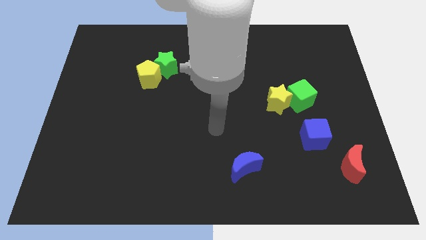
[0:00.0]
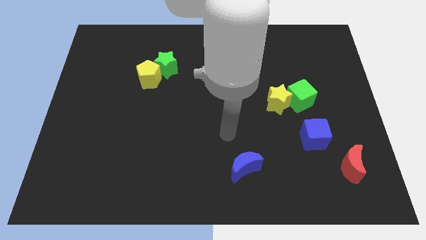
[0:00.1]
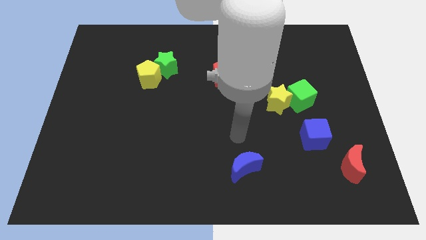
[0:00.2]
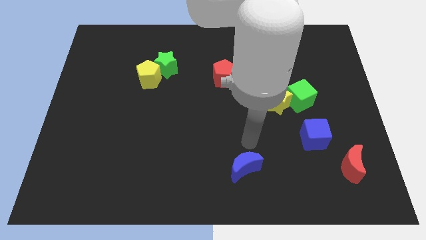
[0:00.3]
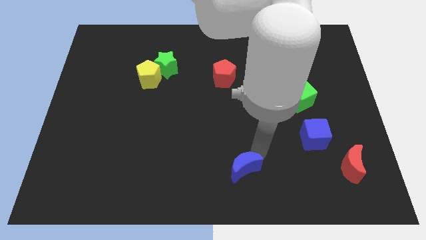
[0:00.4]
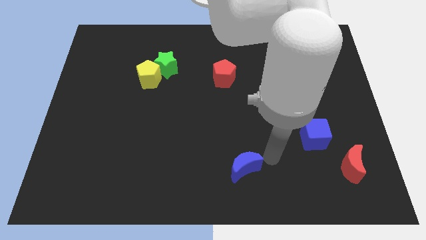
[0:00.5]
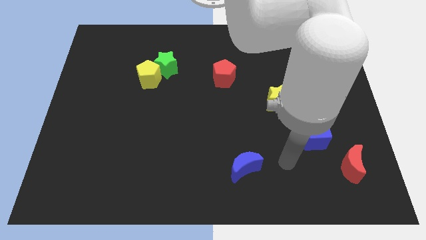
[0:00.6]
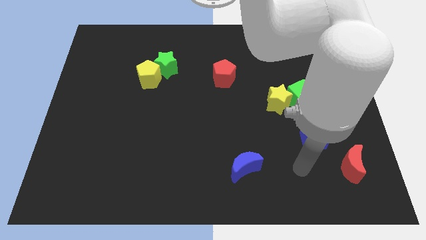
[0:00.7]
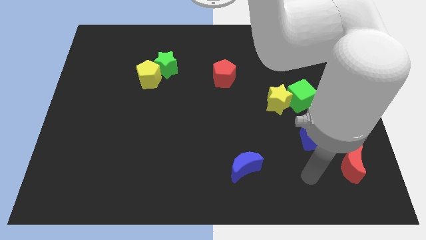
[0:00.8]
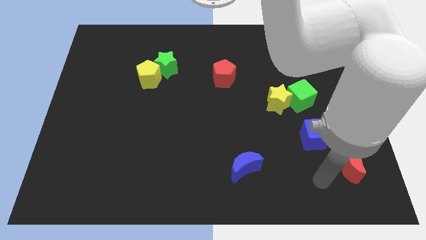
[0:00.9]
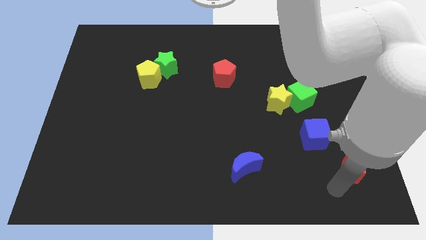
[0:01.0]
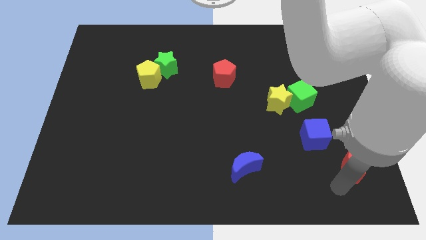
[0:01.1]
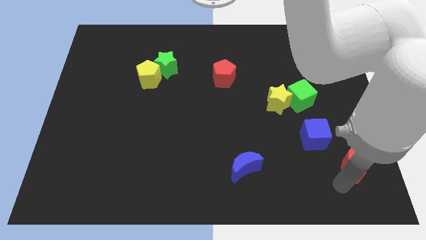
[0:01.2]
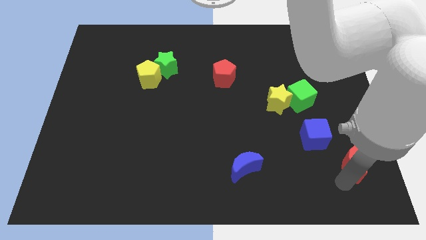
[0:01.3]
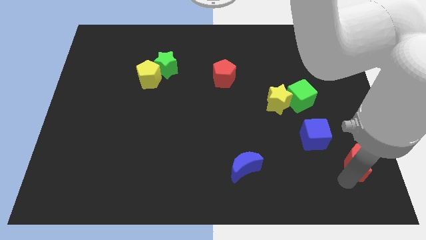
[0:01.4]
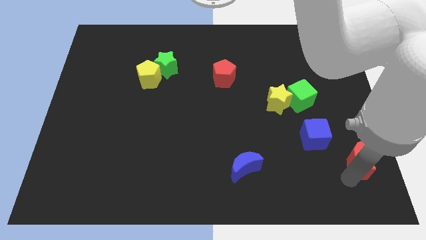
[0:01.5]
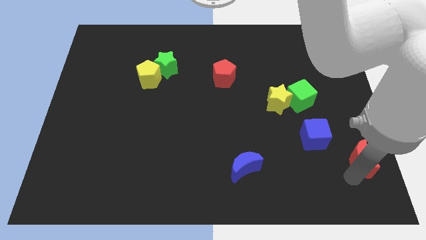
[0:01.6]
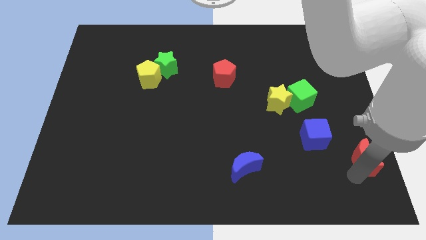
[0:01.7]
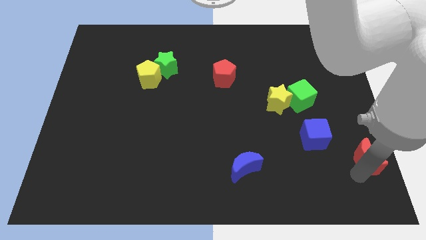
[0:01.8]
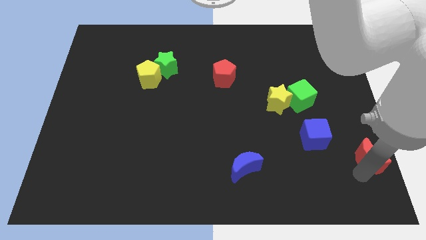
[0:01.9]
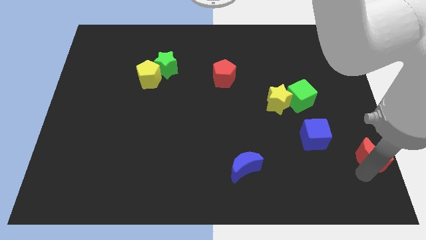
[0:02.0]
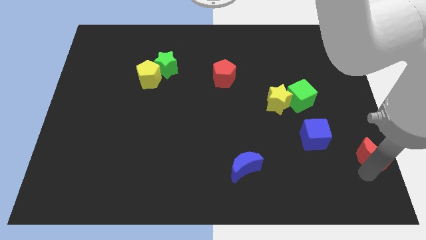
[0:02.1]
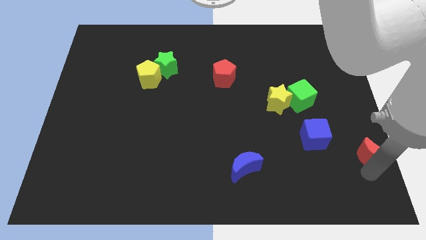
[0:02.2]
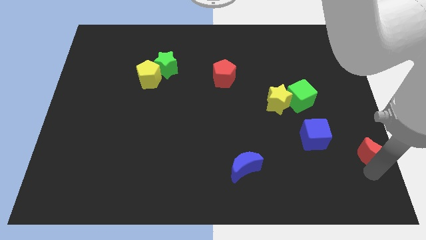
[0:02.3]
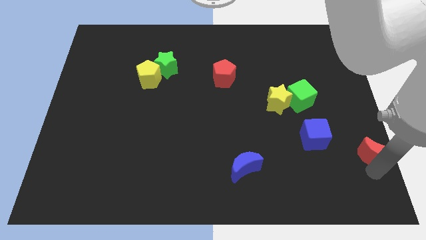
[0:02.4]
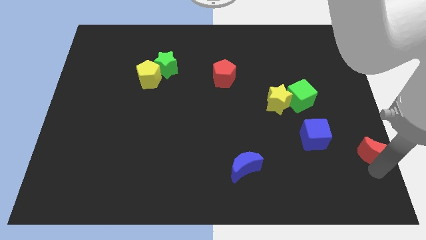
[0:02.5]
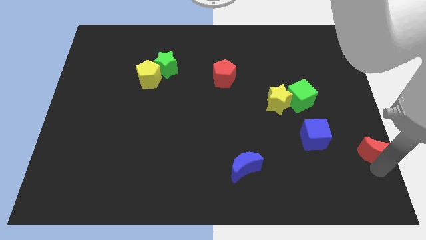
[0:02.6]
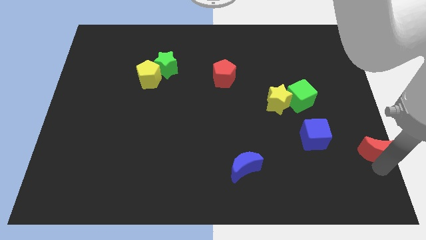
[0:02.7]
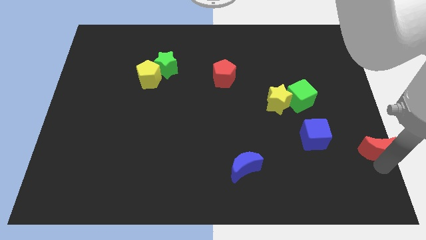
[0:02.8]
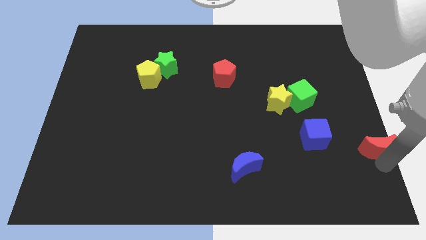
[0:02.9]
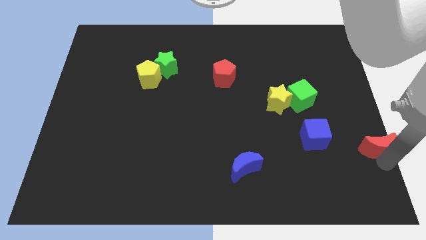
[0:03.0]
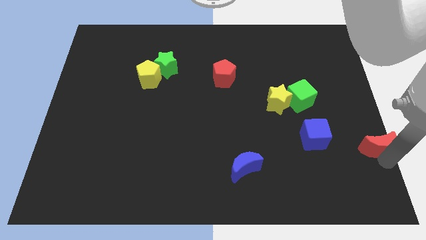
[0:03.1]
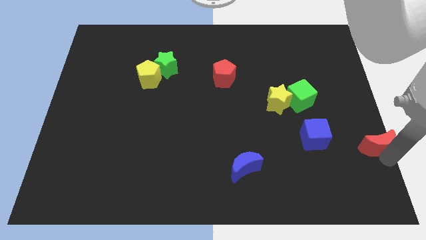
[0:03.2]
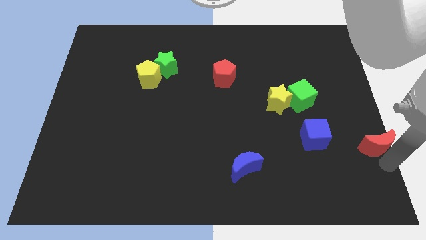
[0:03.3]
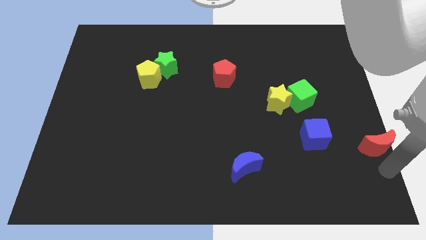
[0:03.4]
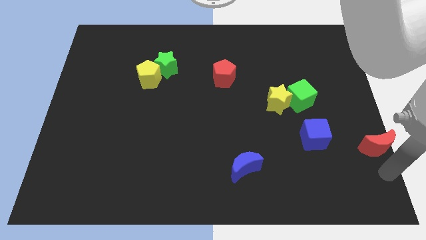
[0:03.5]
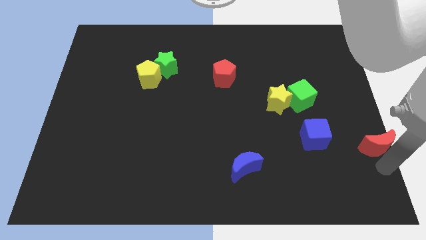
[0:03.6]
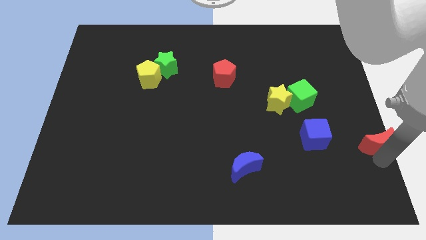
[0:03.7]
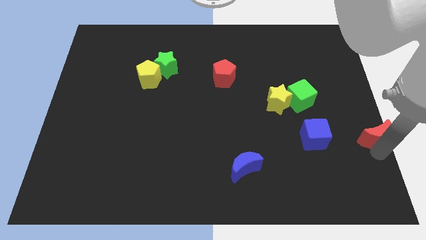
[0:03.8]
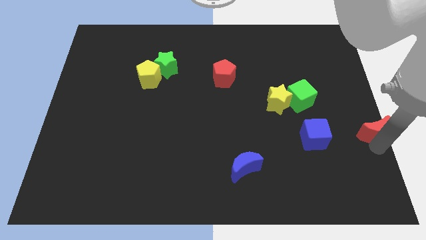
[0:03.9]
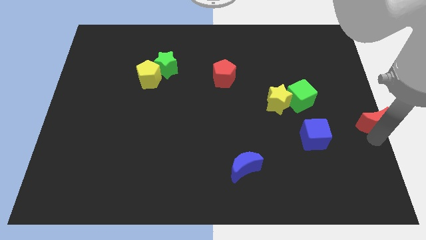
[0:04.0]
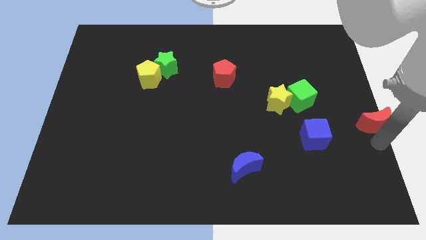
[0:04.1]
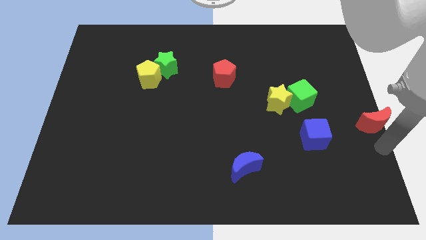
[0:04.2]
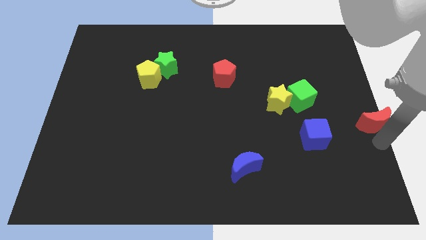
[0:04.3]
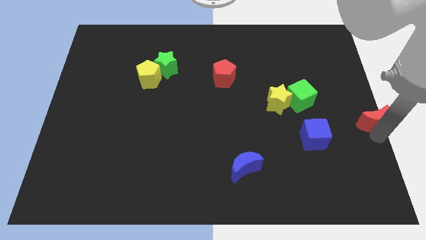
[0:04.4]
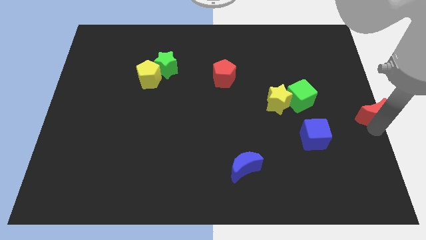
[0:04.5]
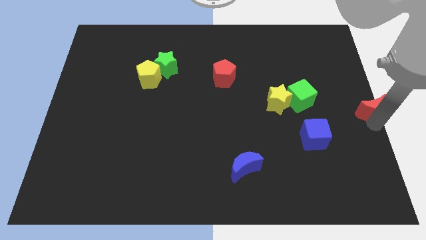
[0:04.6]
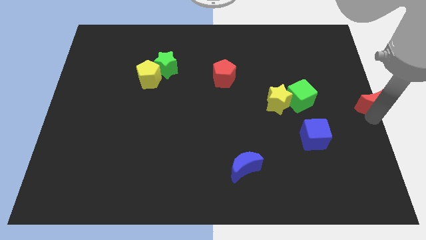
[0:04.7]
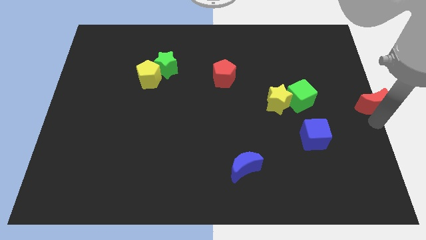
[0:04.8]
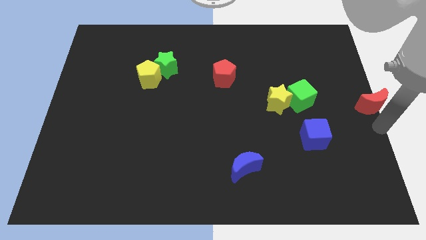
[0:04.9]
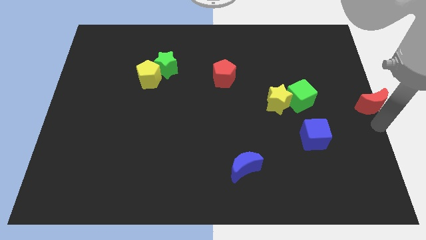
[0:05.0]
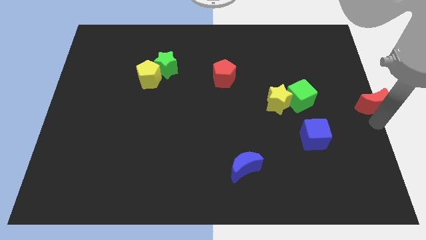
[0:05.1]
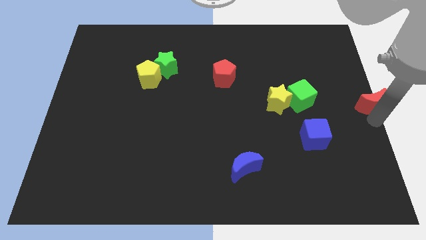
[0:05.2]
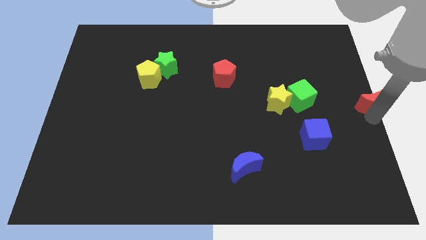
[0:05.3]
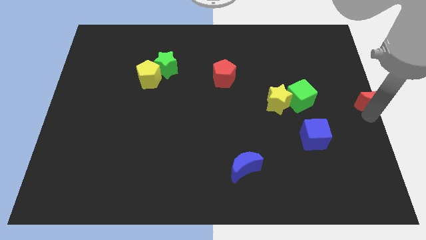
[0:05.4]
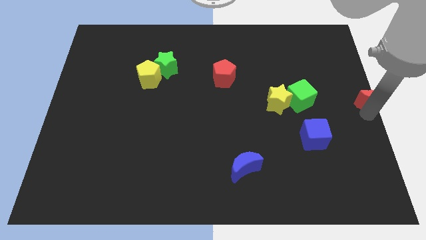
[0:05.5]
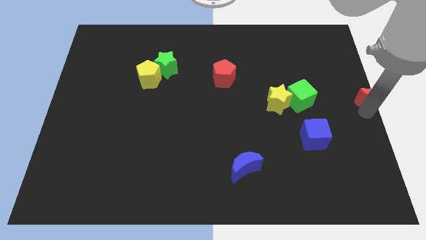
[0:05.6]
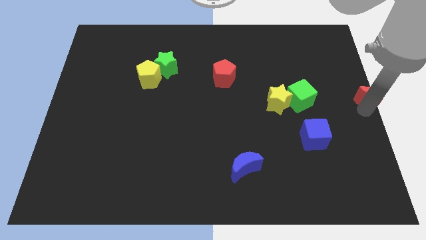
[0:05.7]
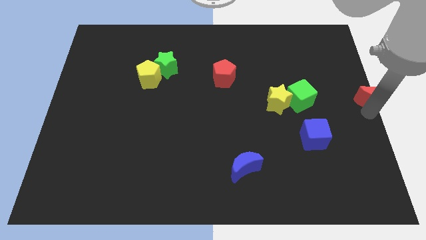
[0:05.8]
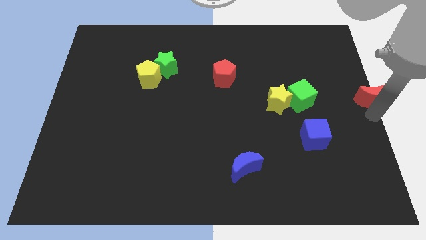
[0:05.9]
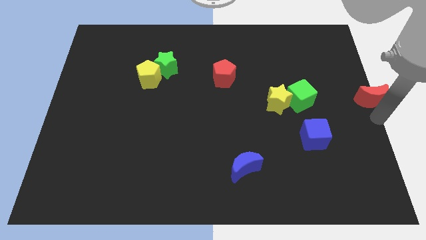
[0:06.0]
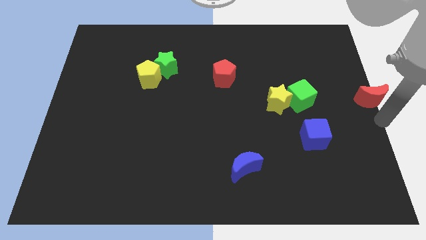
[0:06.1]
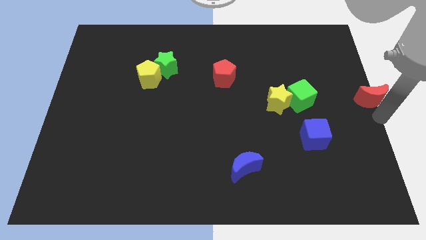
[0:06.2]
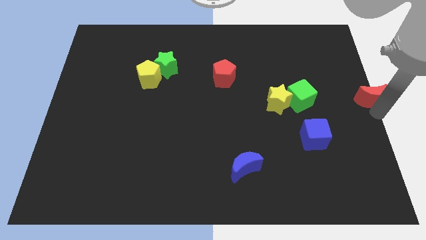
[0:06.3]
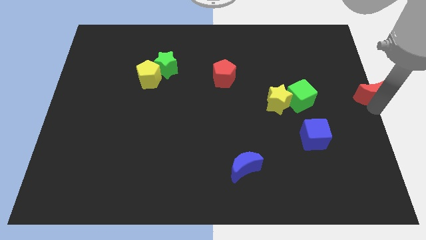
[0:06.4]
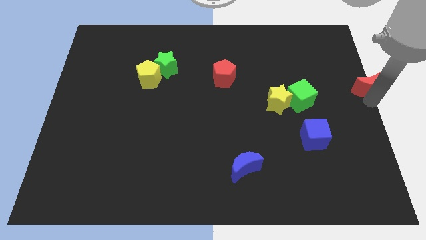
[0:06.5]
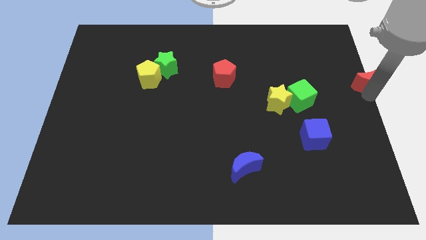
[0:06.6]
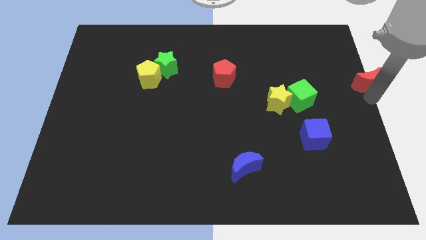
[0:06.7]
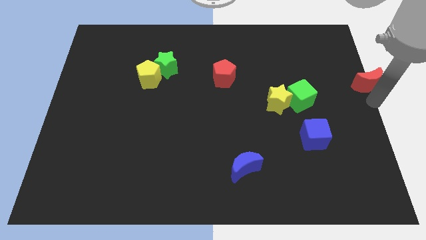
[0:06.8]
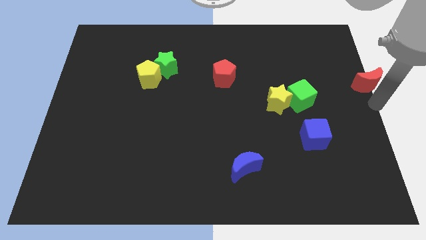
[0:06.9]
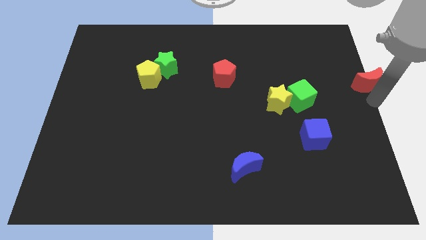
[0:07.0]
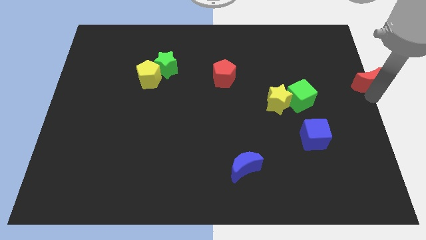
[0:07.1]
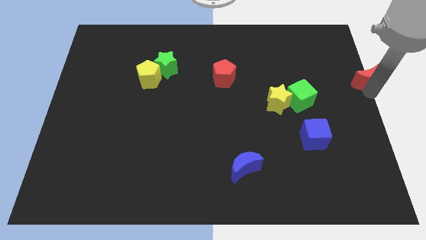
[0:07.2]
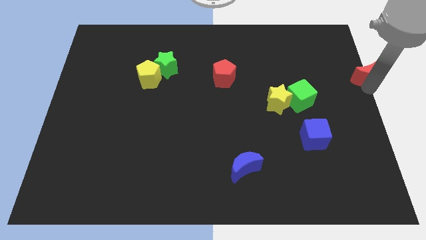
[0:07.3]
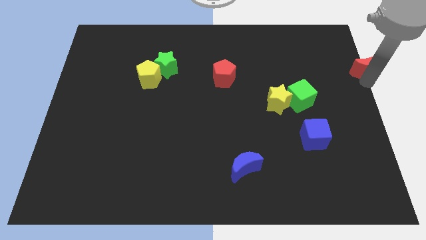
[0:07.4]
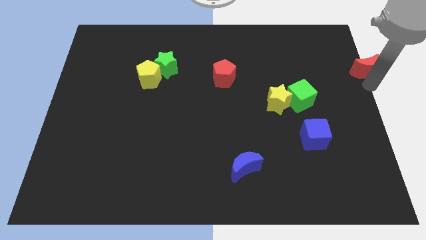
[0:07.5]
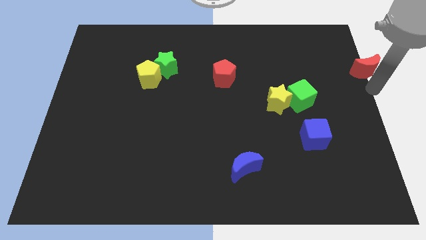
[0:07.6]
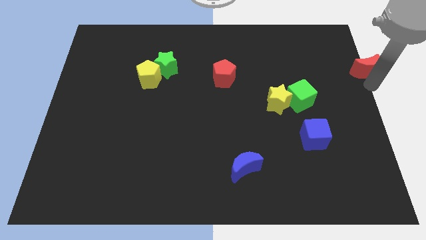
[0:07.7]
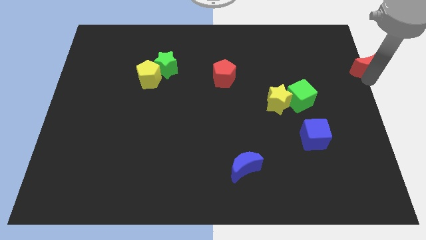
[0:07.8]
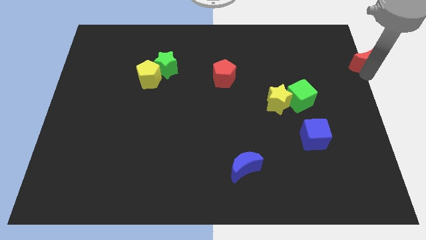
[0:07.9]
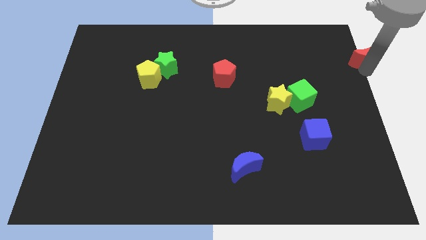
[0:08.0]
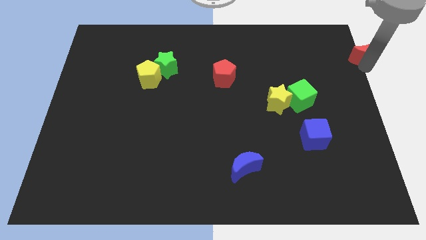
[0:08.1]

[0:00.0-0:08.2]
slide the red moon to the upper right corner
